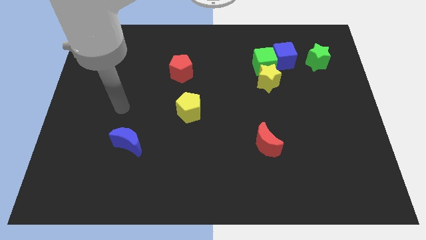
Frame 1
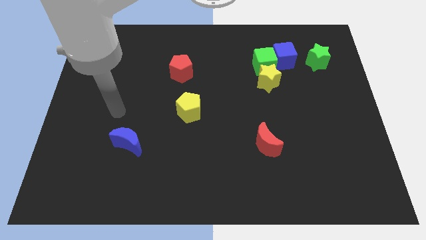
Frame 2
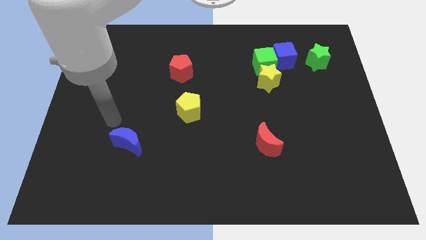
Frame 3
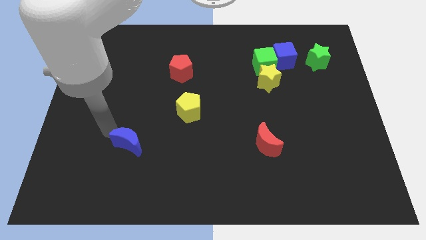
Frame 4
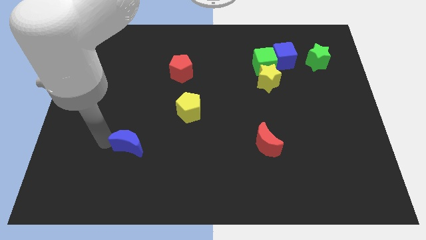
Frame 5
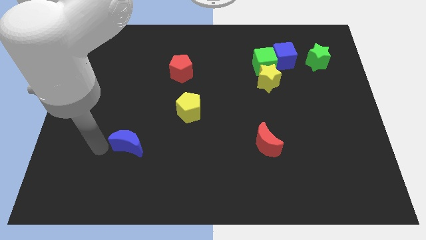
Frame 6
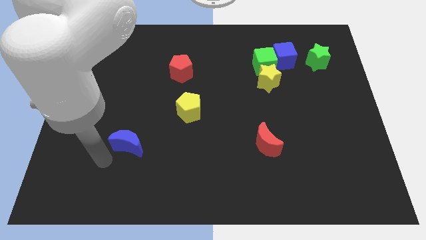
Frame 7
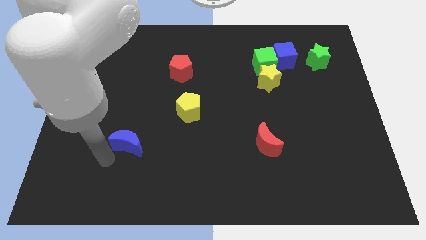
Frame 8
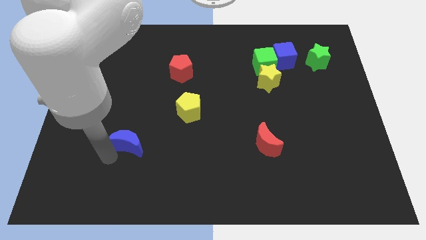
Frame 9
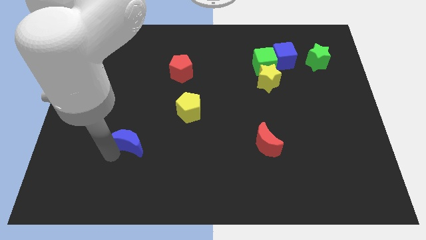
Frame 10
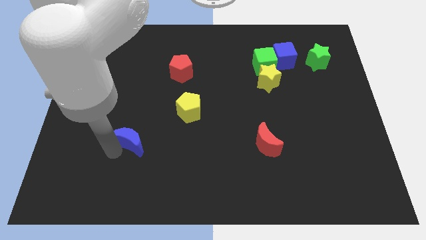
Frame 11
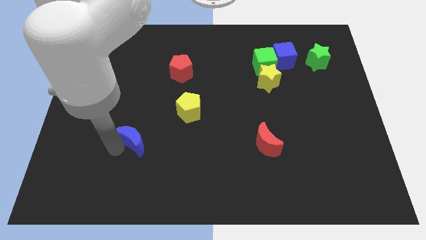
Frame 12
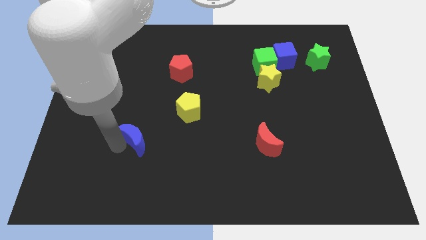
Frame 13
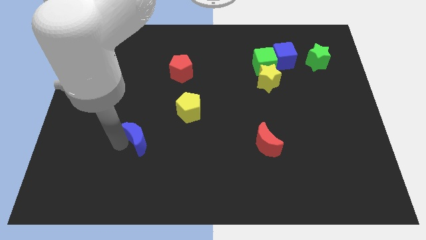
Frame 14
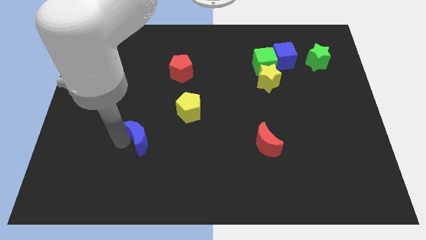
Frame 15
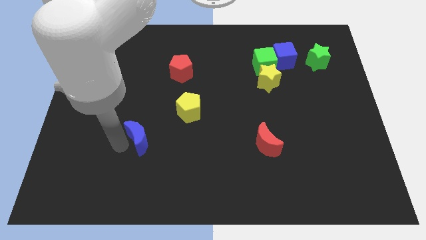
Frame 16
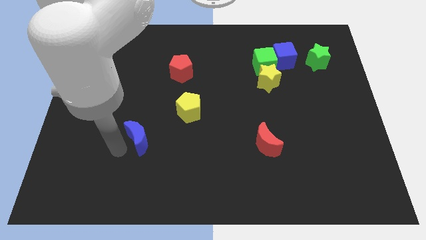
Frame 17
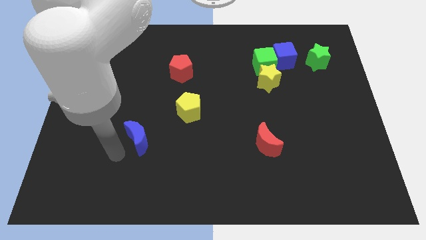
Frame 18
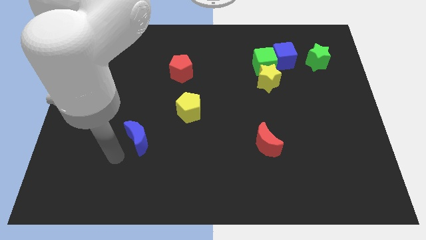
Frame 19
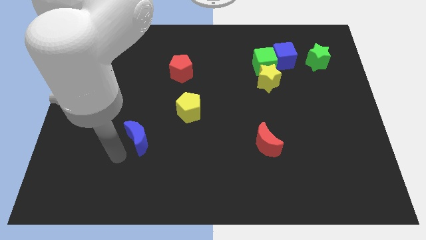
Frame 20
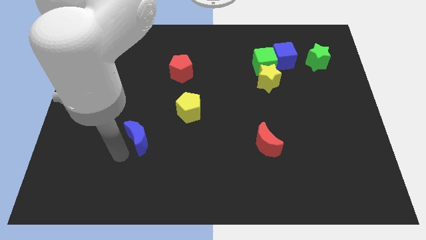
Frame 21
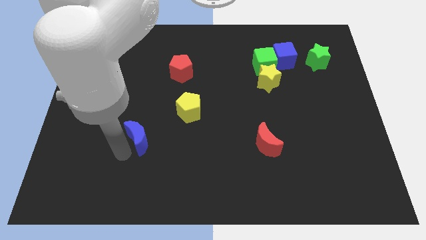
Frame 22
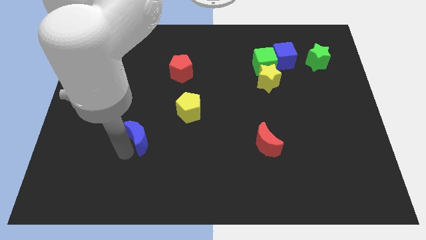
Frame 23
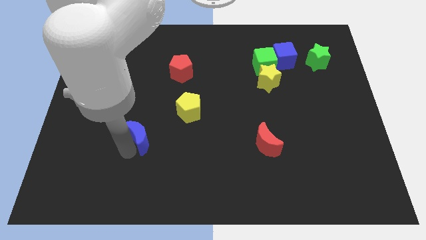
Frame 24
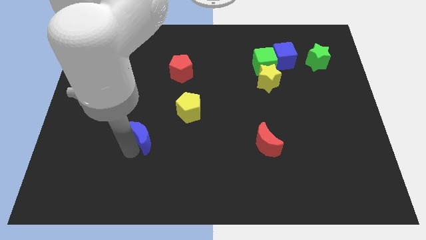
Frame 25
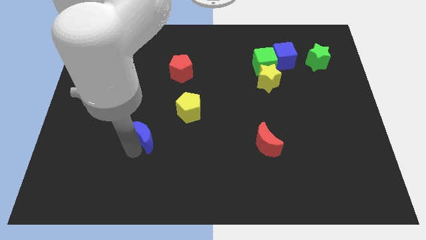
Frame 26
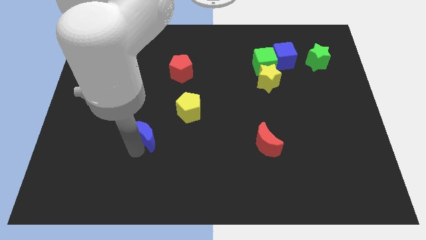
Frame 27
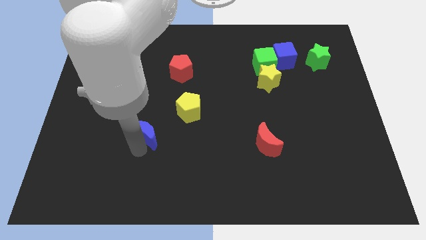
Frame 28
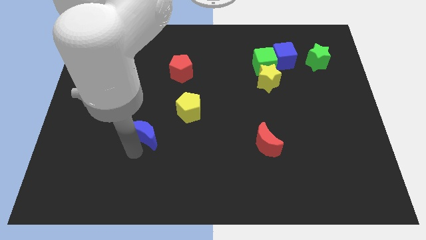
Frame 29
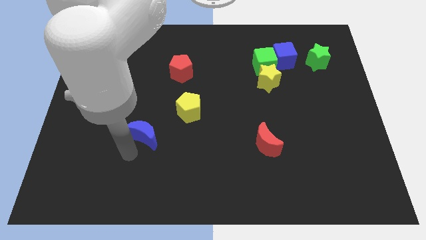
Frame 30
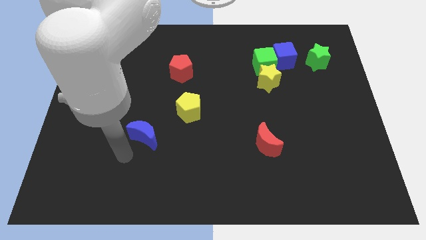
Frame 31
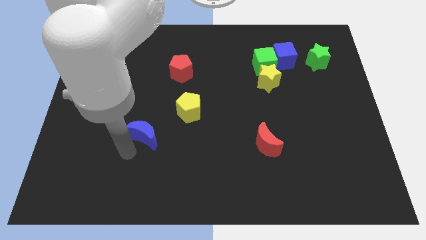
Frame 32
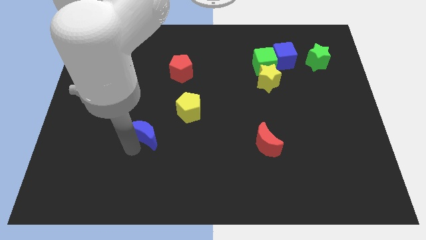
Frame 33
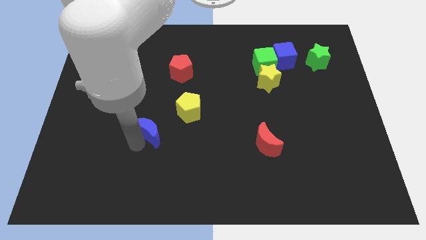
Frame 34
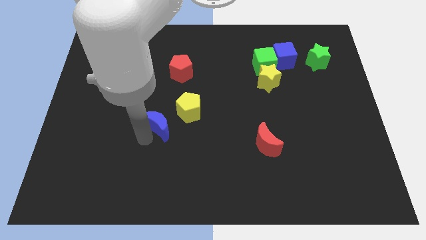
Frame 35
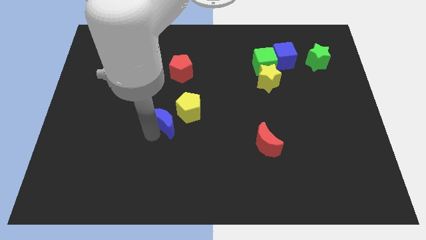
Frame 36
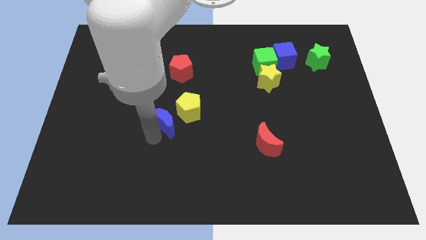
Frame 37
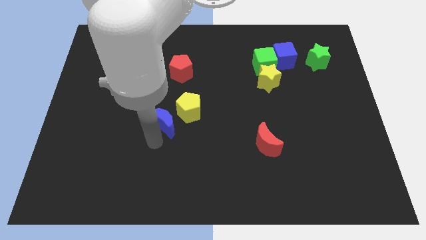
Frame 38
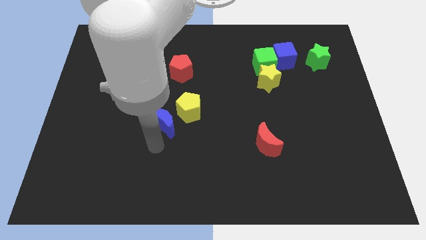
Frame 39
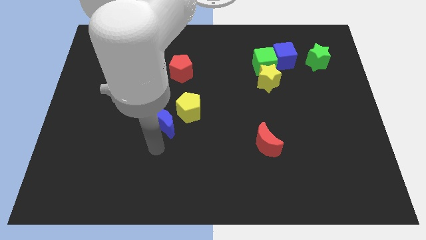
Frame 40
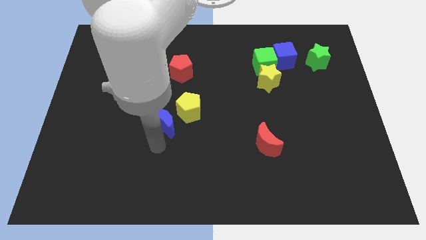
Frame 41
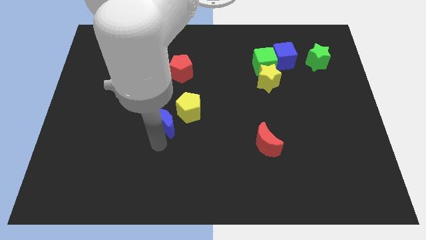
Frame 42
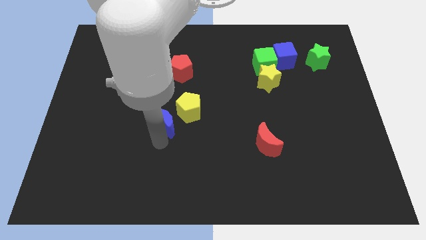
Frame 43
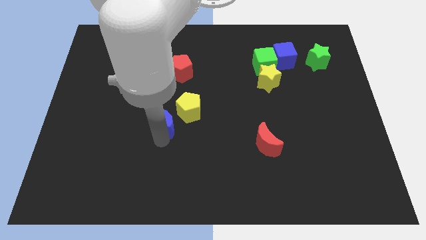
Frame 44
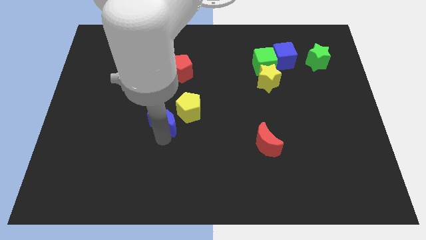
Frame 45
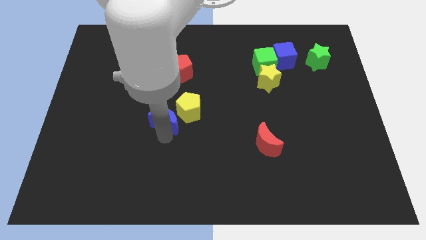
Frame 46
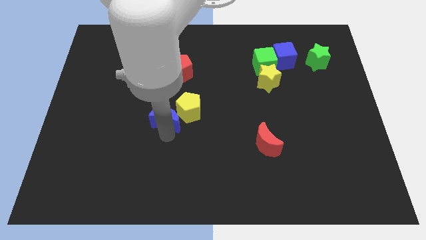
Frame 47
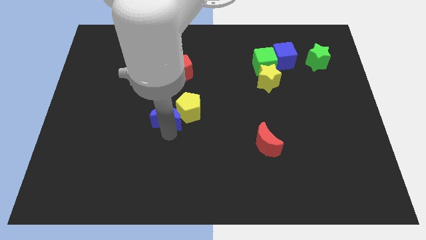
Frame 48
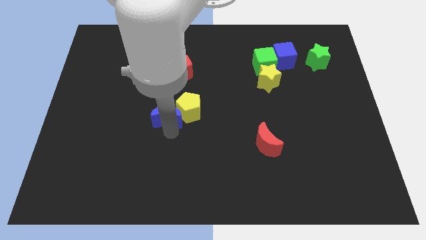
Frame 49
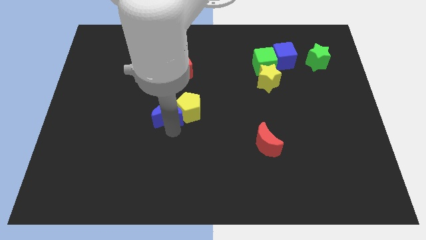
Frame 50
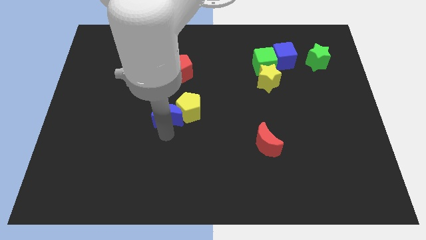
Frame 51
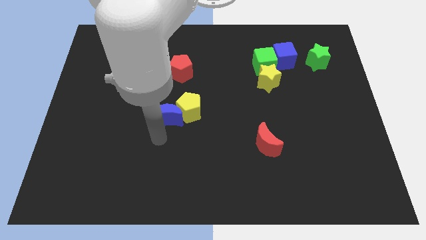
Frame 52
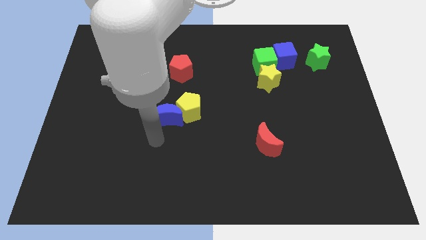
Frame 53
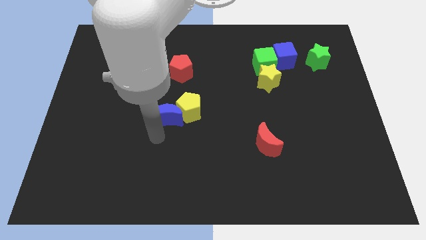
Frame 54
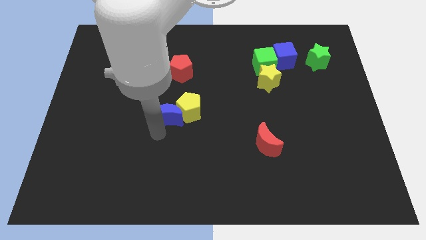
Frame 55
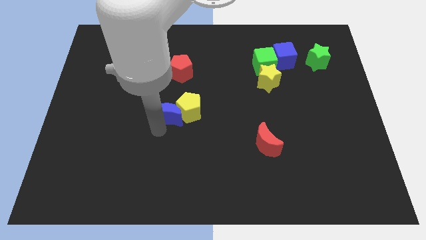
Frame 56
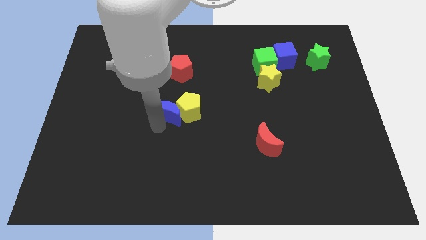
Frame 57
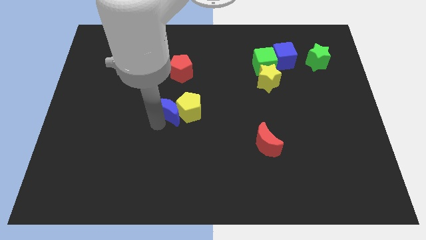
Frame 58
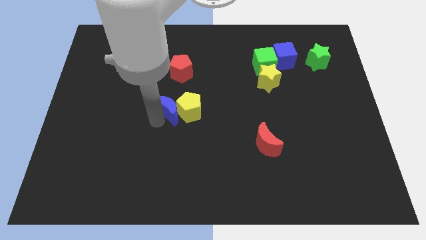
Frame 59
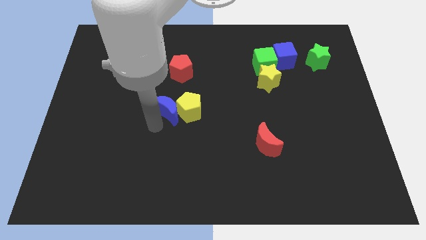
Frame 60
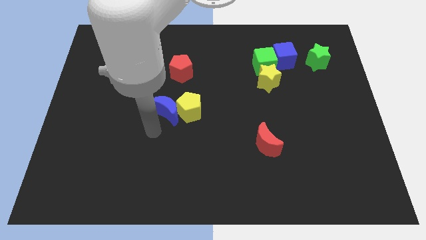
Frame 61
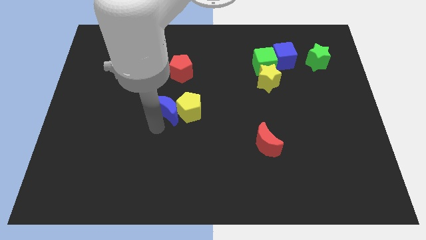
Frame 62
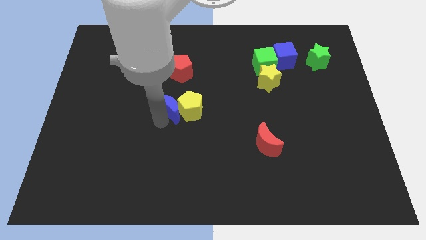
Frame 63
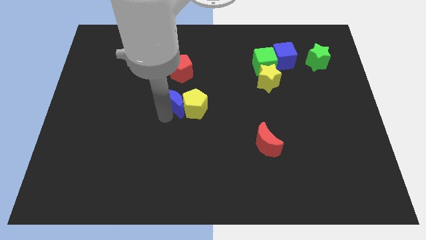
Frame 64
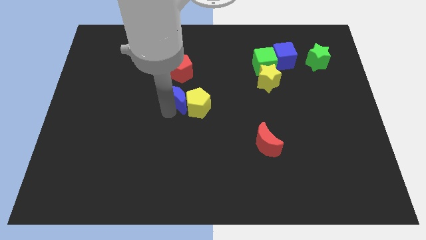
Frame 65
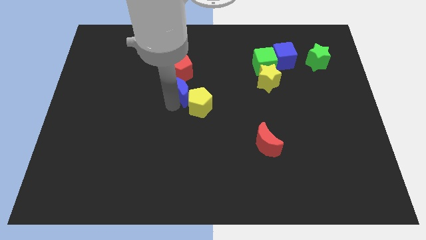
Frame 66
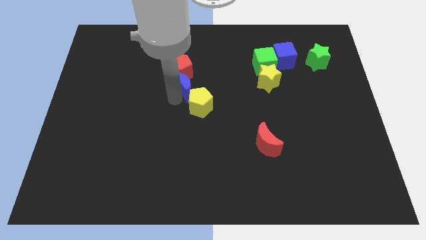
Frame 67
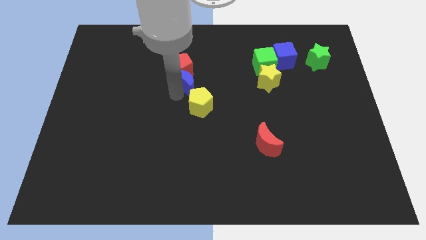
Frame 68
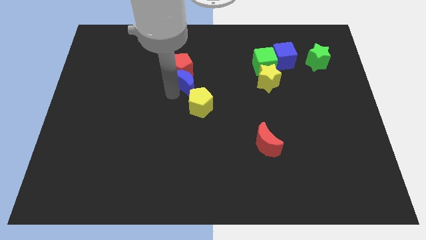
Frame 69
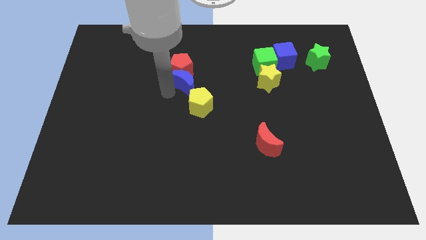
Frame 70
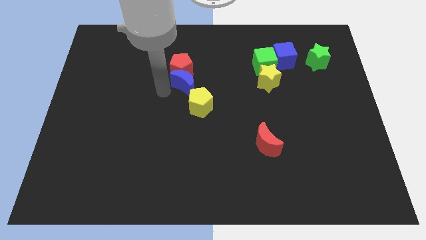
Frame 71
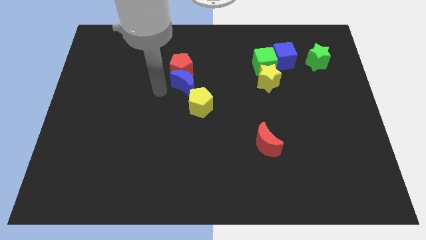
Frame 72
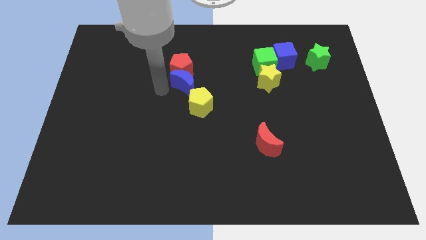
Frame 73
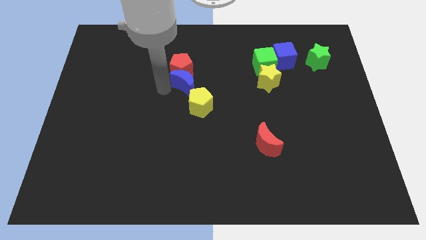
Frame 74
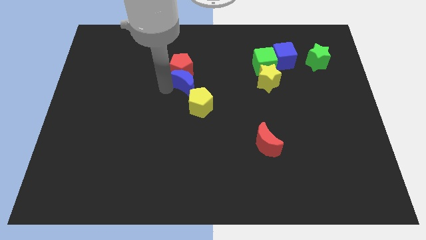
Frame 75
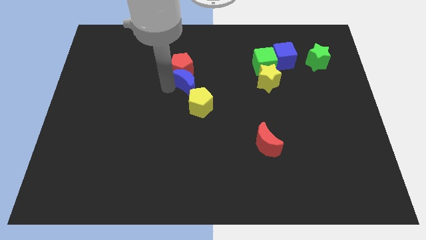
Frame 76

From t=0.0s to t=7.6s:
slide the blue moon diagonally up and to the right

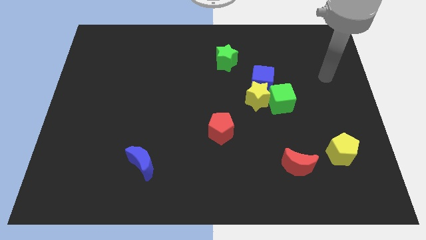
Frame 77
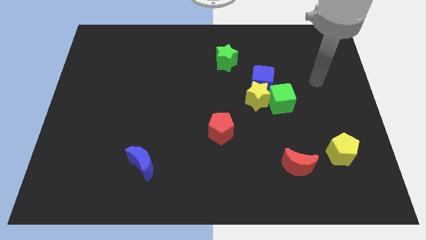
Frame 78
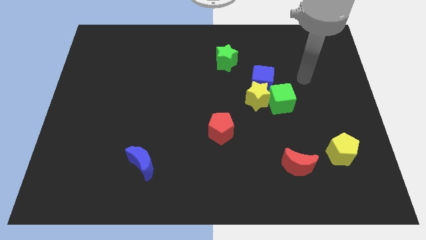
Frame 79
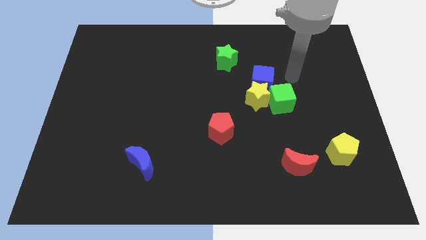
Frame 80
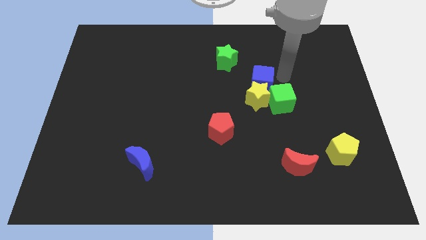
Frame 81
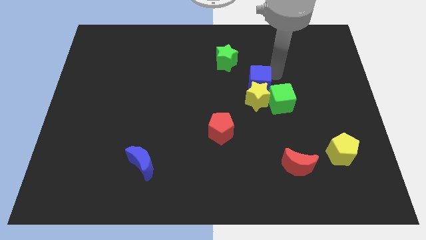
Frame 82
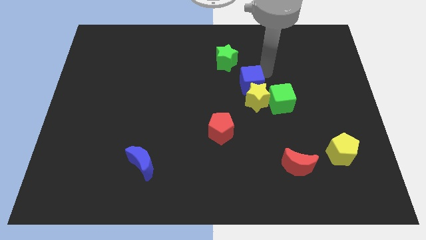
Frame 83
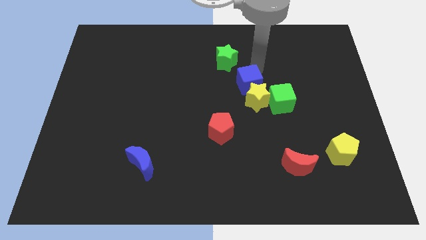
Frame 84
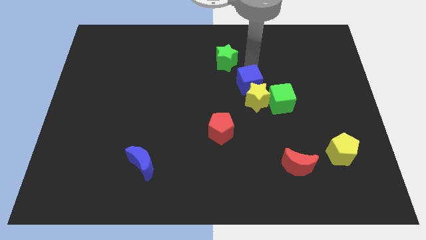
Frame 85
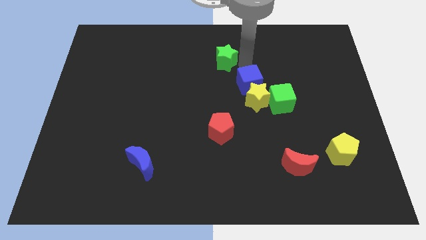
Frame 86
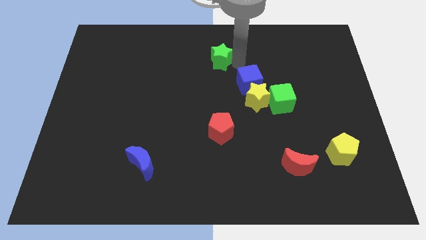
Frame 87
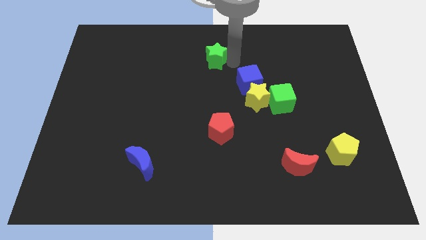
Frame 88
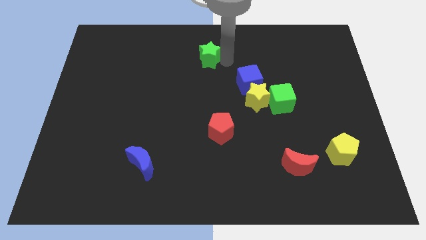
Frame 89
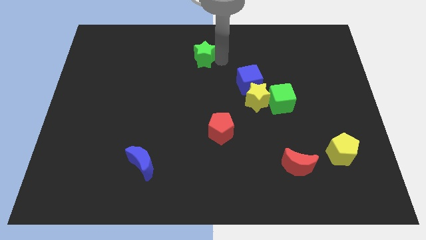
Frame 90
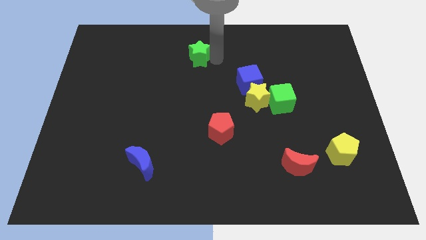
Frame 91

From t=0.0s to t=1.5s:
push the green star a little bit left
